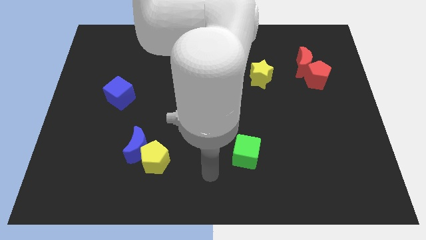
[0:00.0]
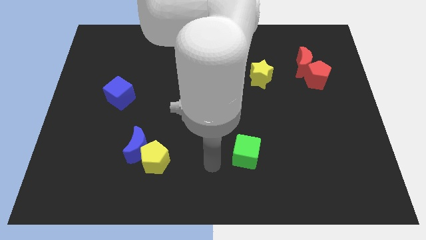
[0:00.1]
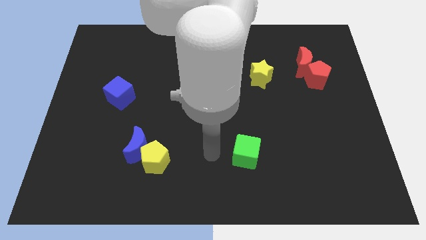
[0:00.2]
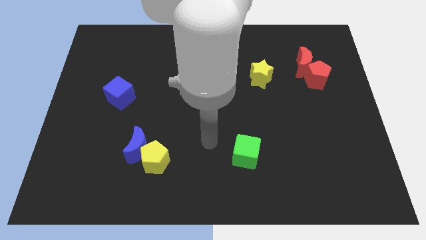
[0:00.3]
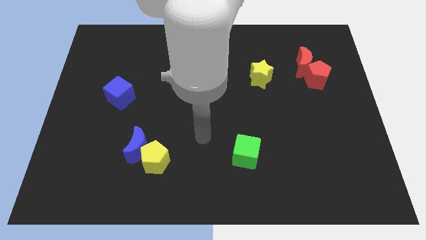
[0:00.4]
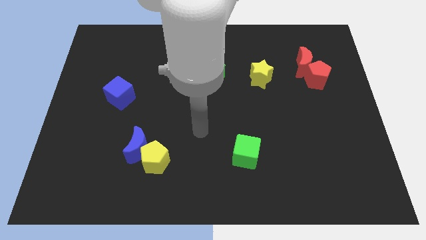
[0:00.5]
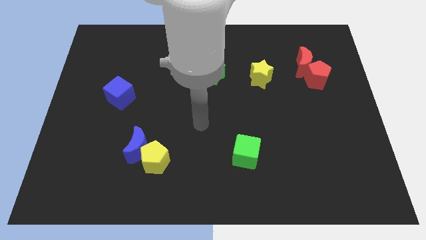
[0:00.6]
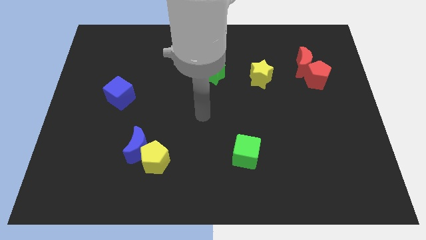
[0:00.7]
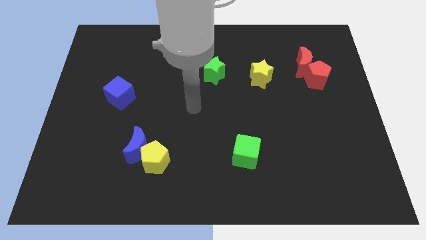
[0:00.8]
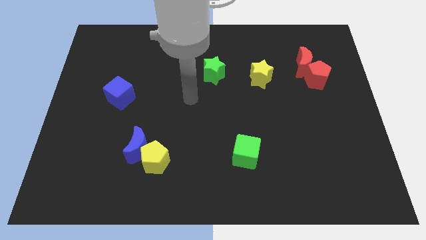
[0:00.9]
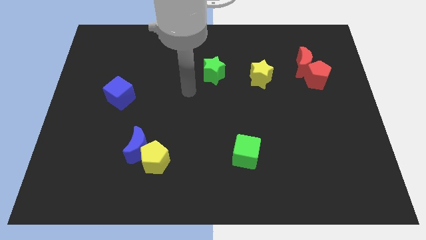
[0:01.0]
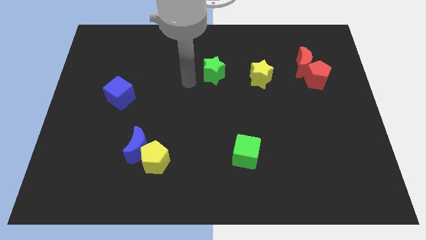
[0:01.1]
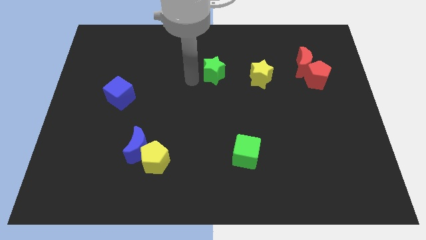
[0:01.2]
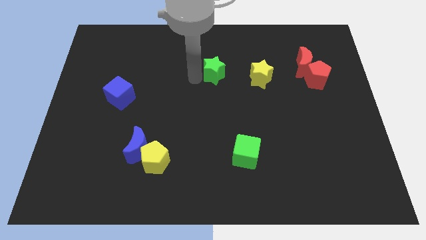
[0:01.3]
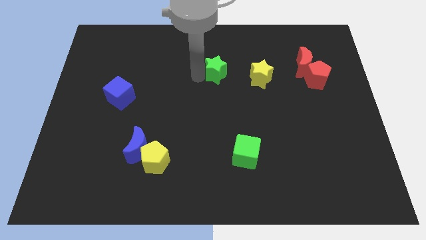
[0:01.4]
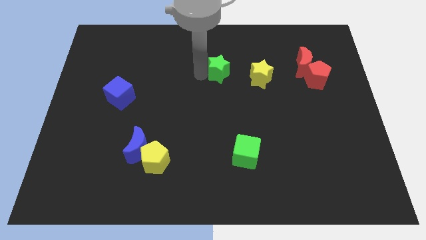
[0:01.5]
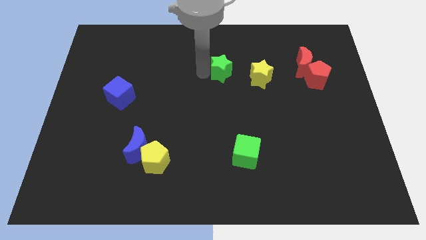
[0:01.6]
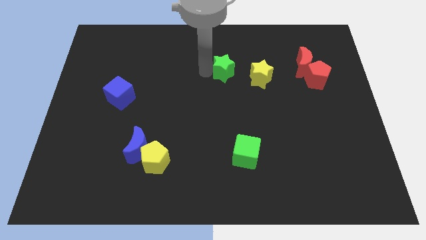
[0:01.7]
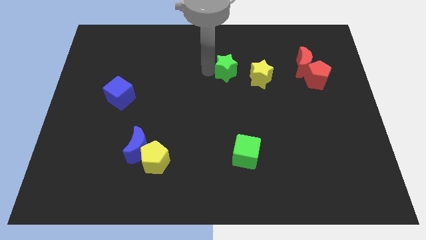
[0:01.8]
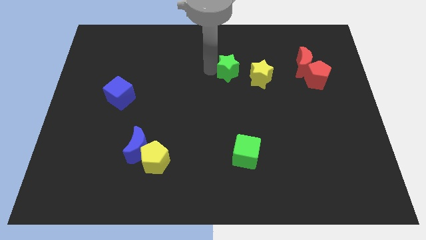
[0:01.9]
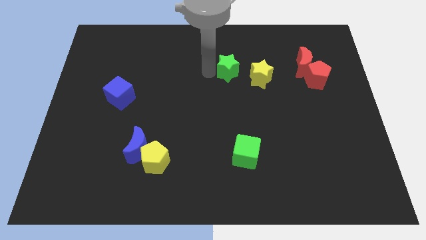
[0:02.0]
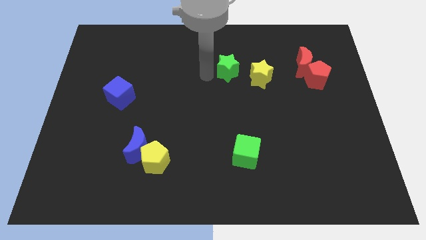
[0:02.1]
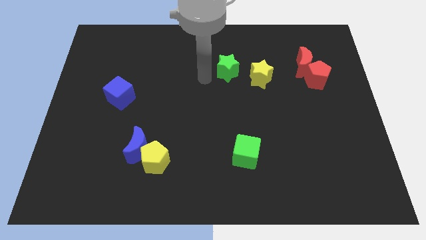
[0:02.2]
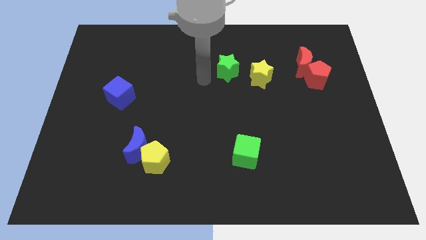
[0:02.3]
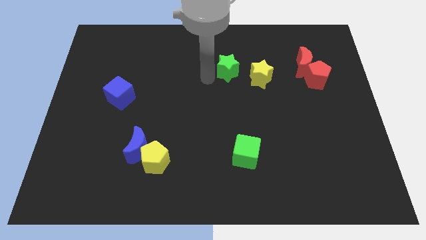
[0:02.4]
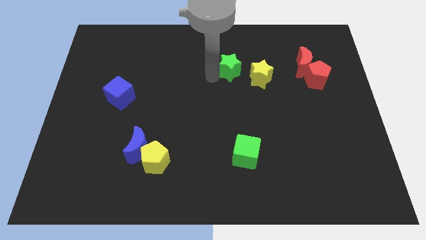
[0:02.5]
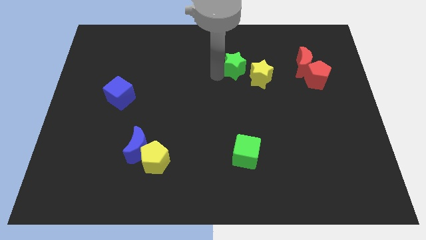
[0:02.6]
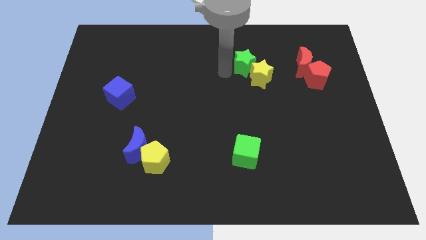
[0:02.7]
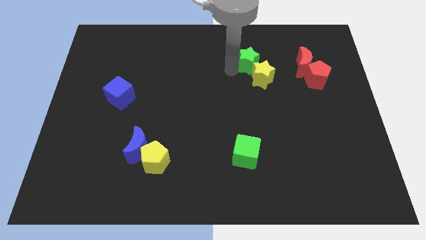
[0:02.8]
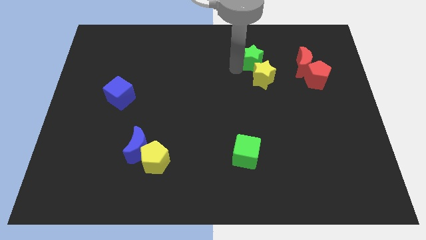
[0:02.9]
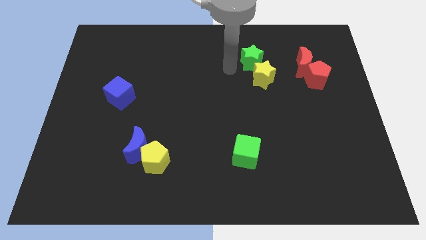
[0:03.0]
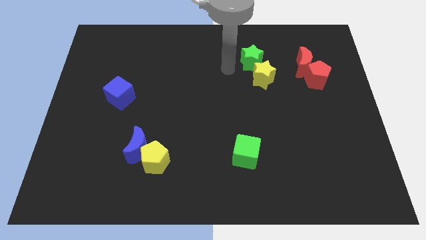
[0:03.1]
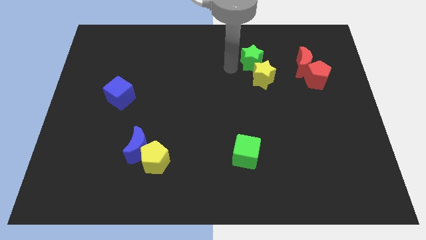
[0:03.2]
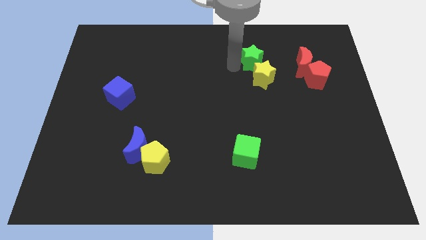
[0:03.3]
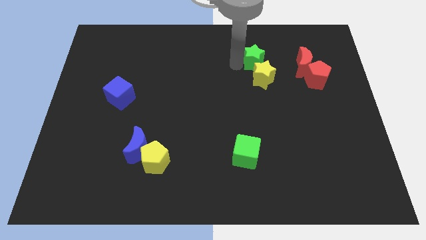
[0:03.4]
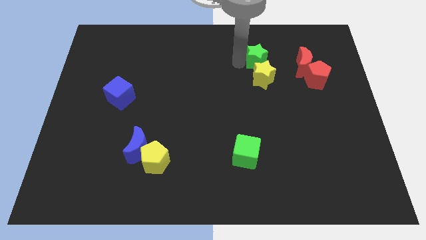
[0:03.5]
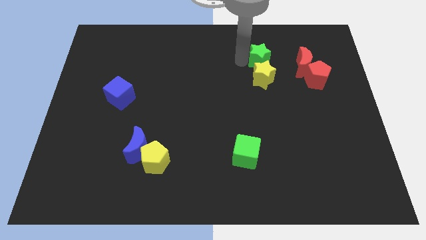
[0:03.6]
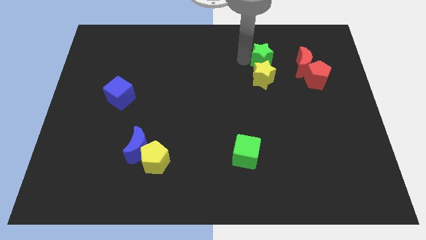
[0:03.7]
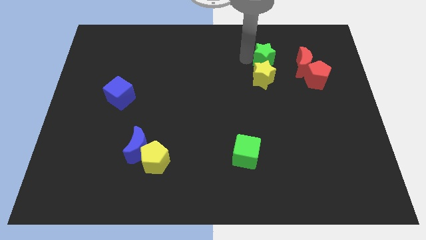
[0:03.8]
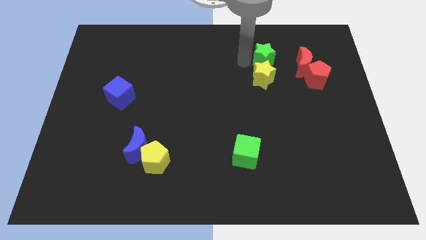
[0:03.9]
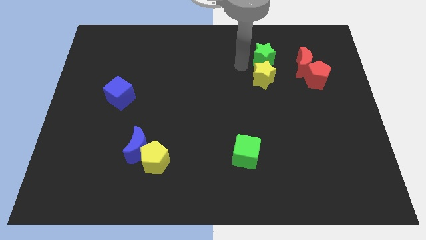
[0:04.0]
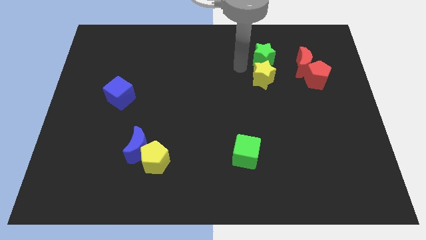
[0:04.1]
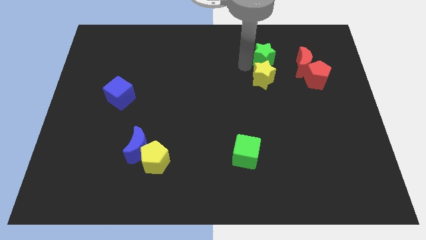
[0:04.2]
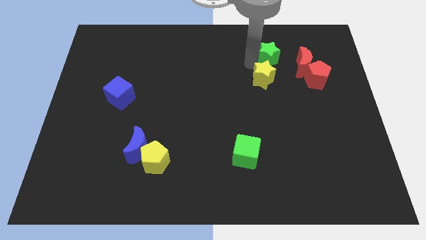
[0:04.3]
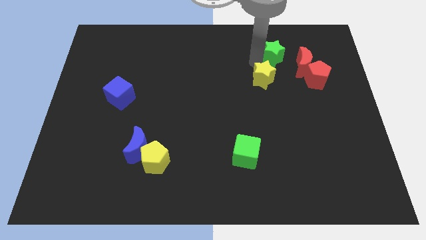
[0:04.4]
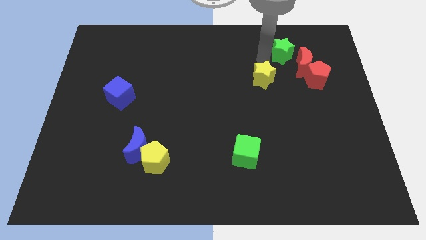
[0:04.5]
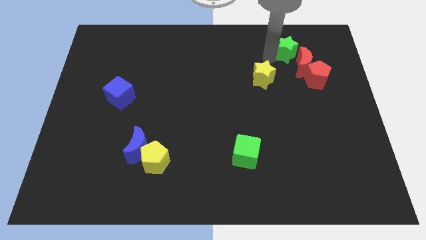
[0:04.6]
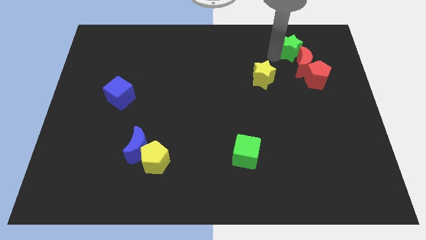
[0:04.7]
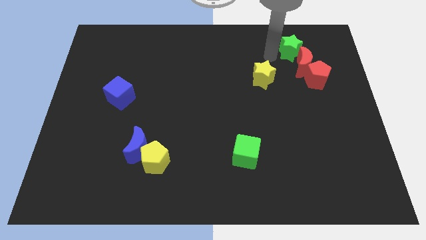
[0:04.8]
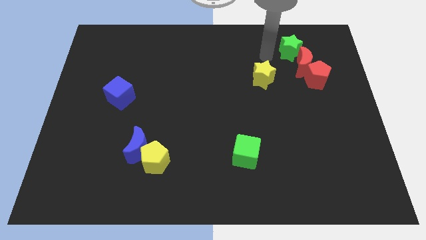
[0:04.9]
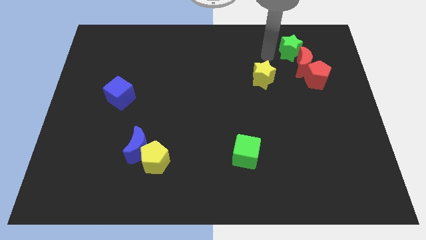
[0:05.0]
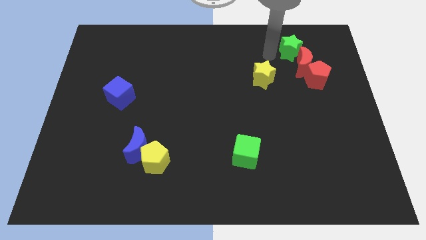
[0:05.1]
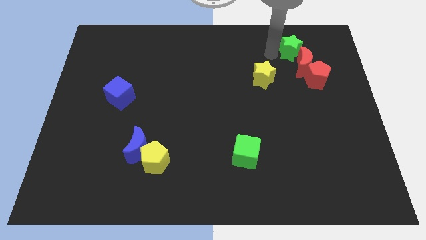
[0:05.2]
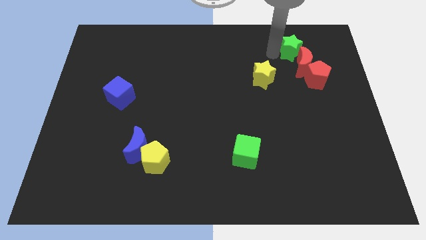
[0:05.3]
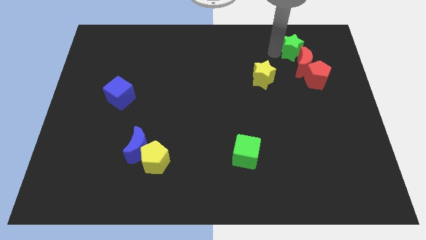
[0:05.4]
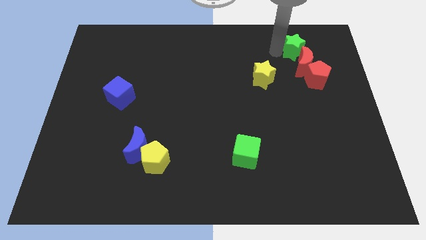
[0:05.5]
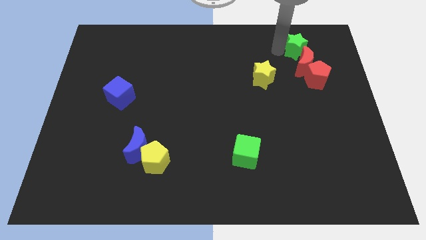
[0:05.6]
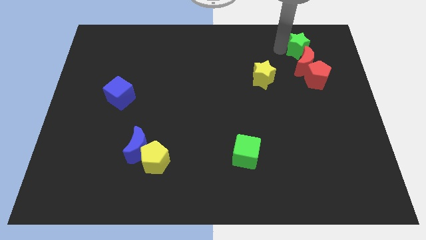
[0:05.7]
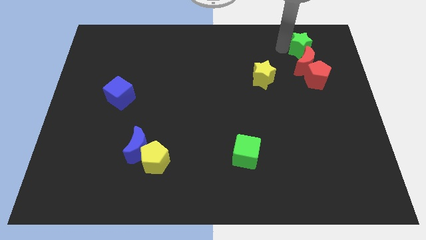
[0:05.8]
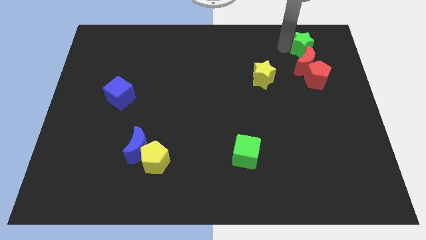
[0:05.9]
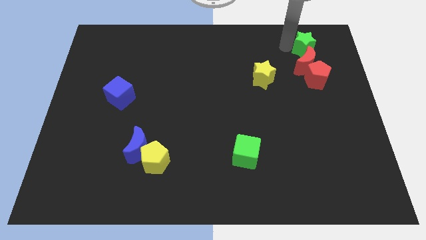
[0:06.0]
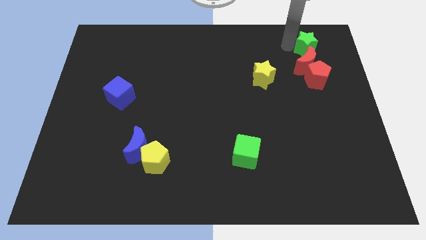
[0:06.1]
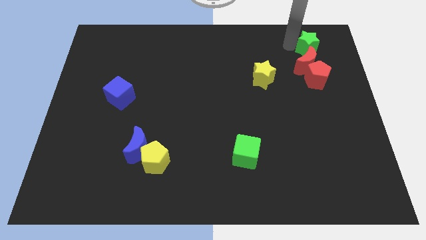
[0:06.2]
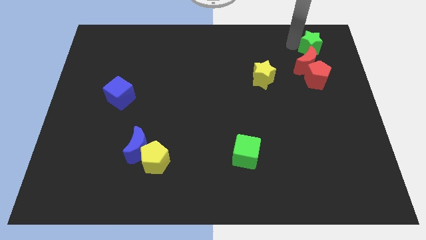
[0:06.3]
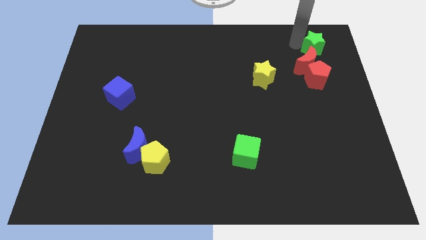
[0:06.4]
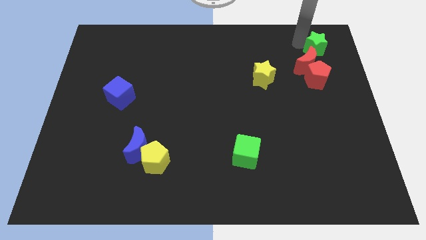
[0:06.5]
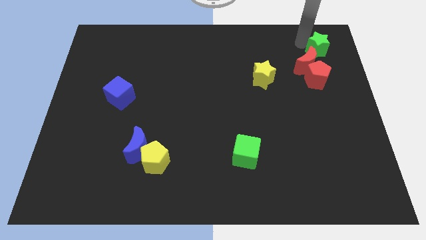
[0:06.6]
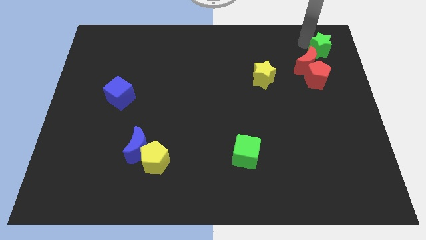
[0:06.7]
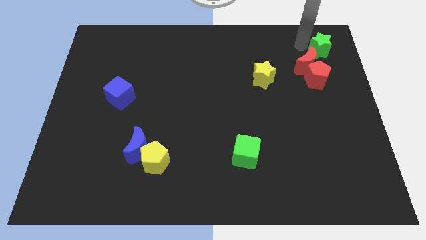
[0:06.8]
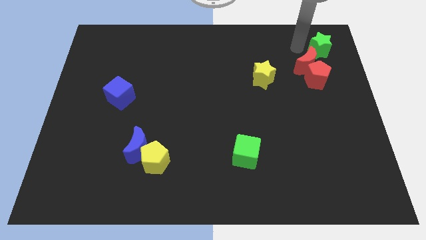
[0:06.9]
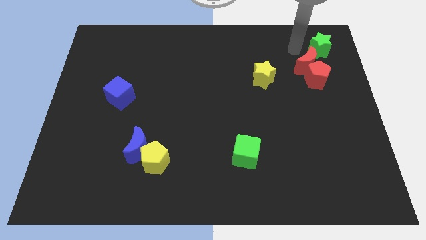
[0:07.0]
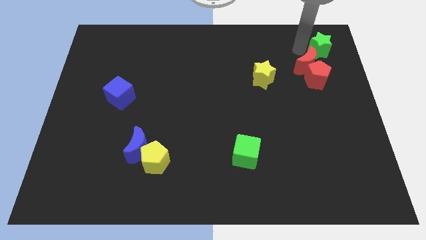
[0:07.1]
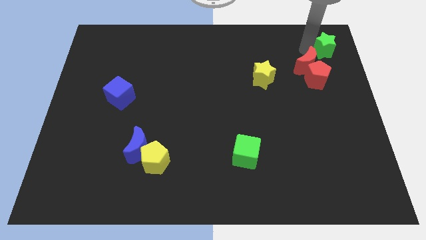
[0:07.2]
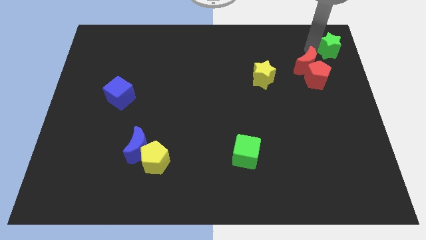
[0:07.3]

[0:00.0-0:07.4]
push the green star to the upper right corner
